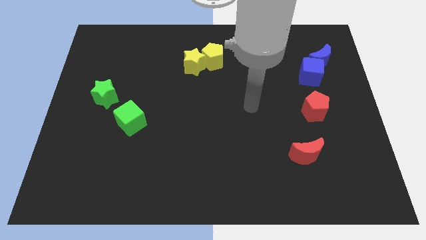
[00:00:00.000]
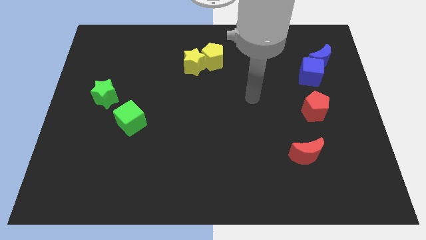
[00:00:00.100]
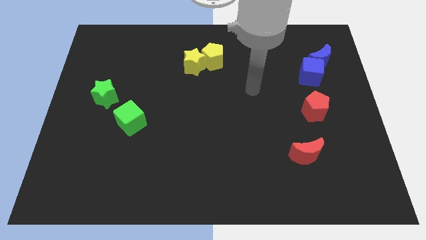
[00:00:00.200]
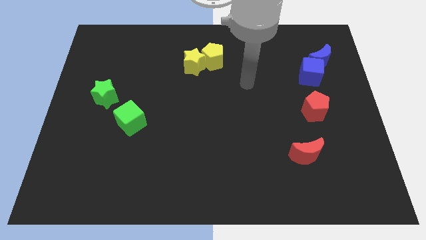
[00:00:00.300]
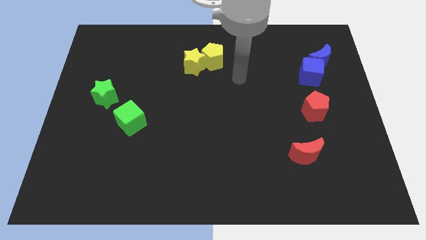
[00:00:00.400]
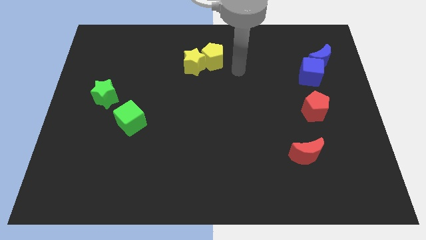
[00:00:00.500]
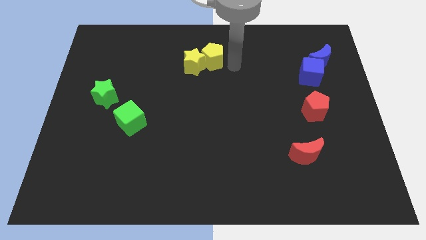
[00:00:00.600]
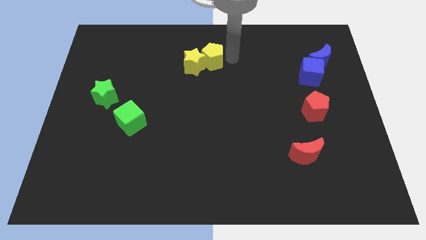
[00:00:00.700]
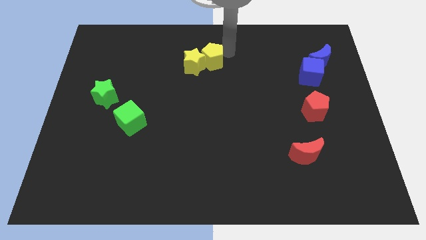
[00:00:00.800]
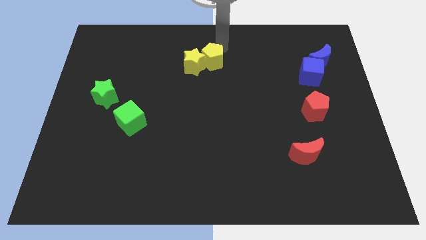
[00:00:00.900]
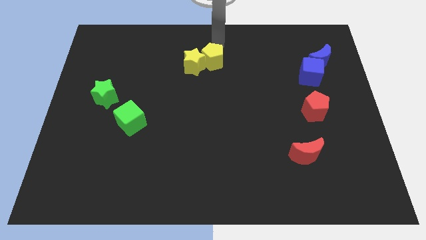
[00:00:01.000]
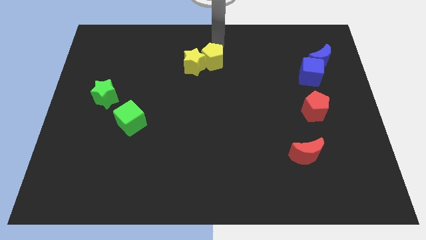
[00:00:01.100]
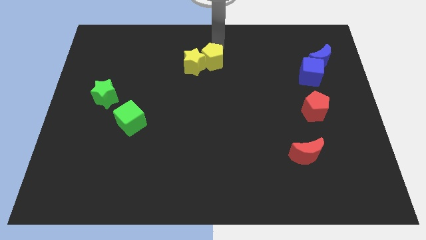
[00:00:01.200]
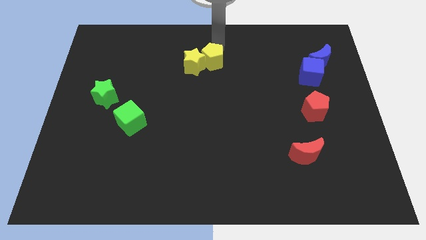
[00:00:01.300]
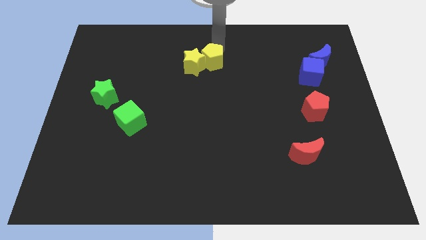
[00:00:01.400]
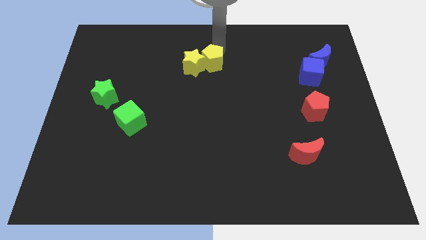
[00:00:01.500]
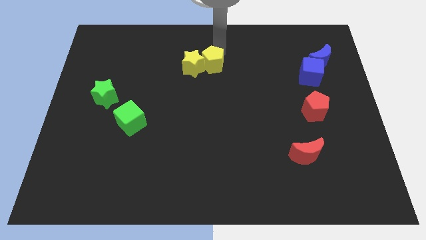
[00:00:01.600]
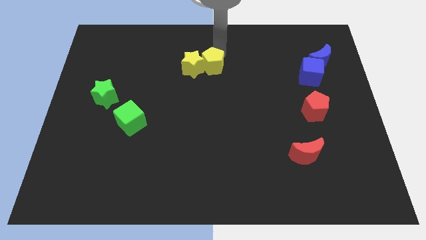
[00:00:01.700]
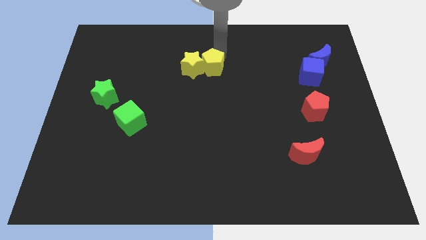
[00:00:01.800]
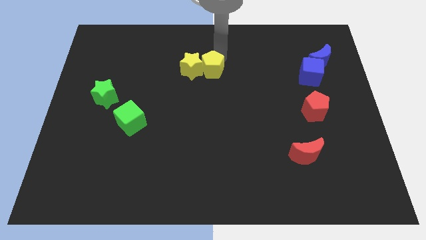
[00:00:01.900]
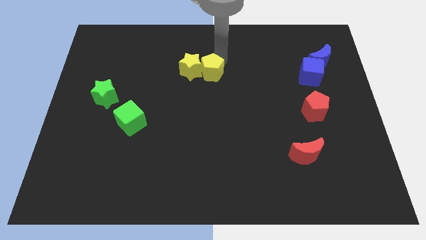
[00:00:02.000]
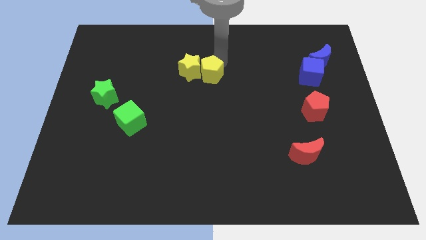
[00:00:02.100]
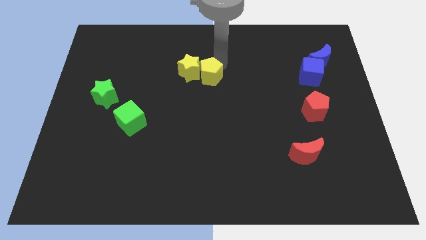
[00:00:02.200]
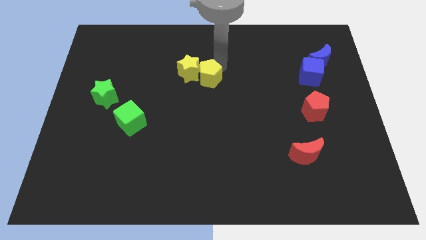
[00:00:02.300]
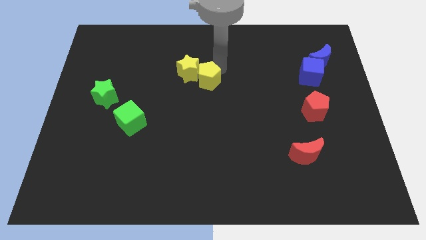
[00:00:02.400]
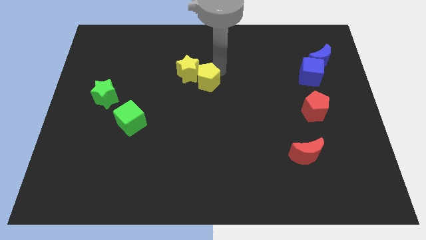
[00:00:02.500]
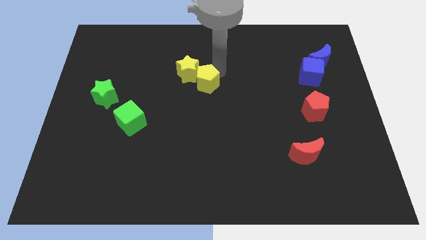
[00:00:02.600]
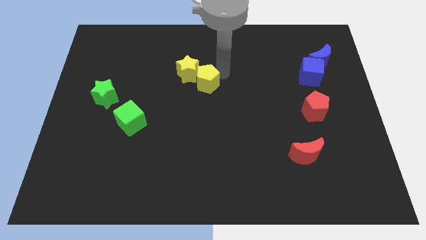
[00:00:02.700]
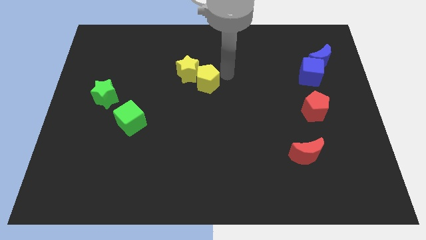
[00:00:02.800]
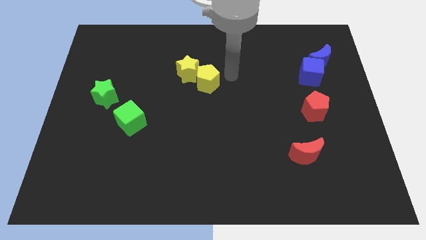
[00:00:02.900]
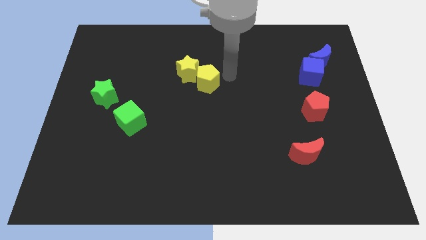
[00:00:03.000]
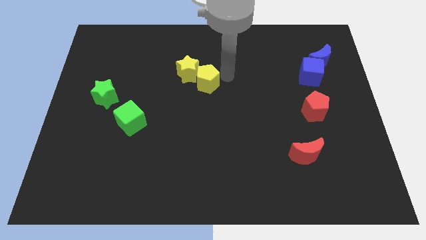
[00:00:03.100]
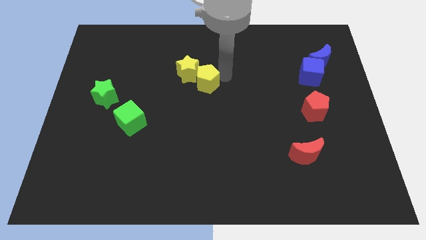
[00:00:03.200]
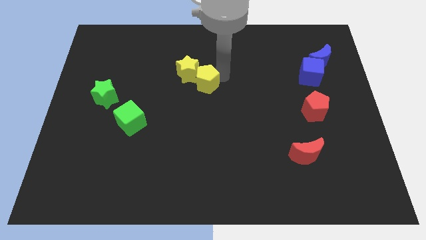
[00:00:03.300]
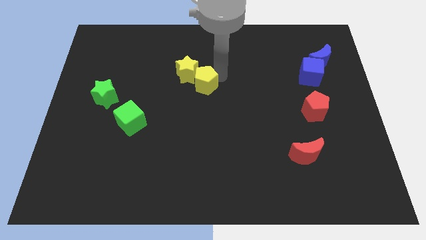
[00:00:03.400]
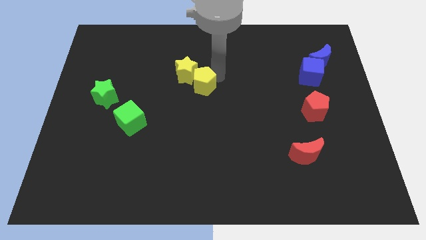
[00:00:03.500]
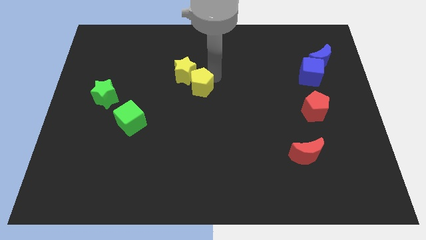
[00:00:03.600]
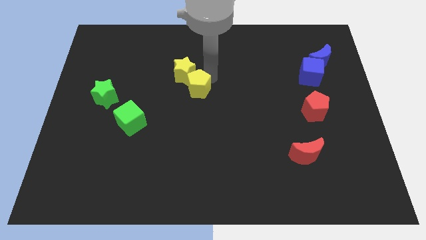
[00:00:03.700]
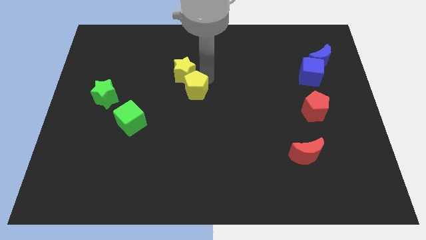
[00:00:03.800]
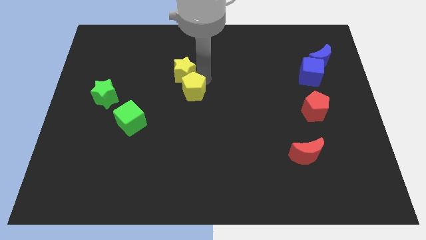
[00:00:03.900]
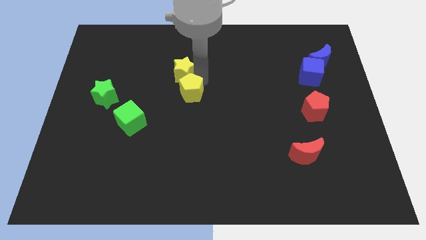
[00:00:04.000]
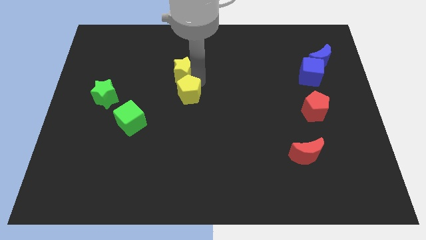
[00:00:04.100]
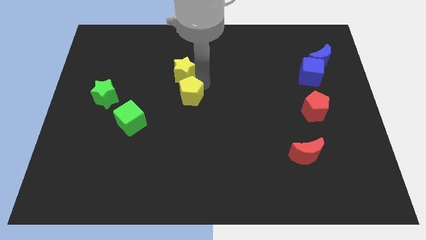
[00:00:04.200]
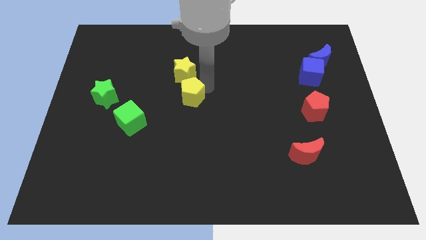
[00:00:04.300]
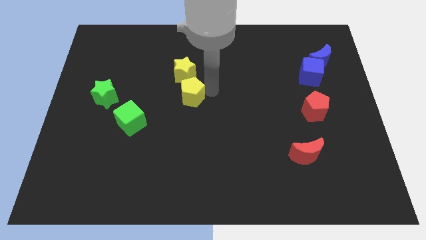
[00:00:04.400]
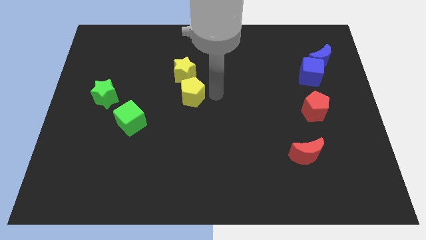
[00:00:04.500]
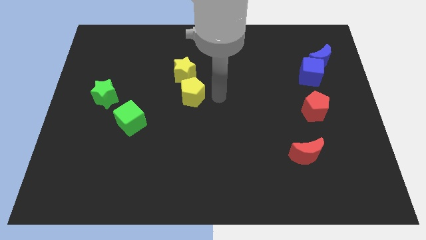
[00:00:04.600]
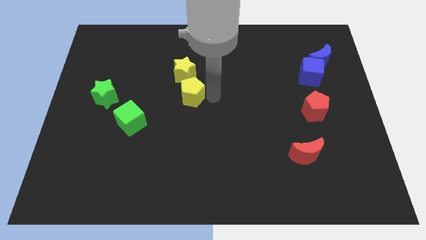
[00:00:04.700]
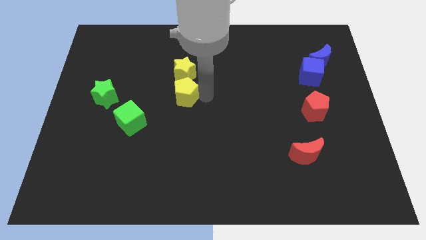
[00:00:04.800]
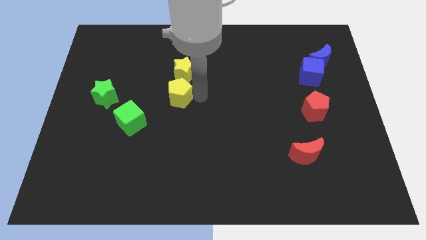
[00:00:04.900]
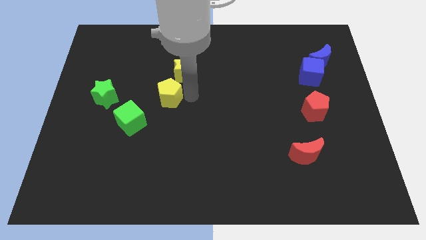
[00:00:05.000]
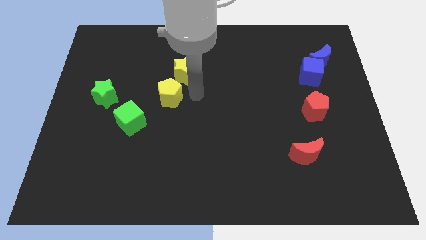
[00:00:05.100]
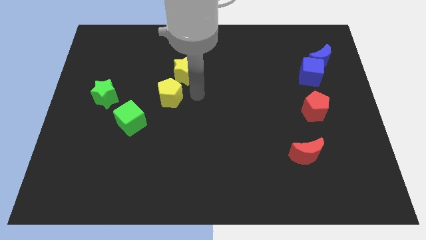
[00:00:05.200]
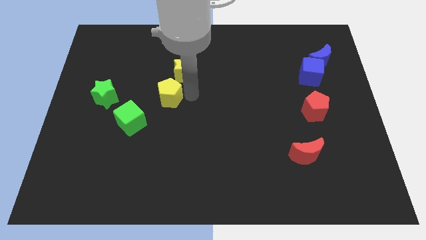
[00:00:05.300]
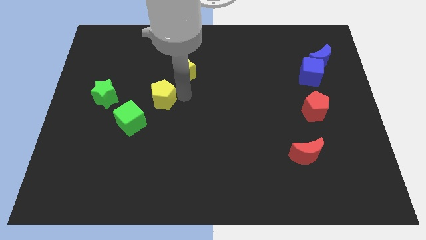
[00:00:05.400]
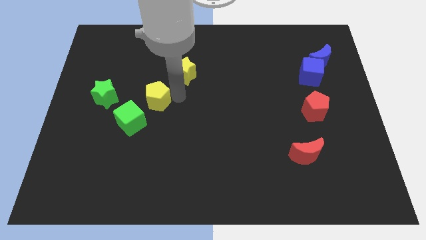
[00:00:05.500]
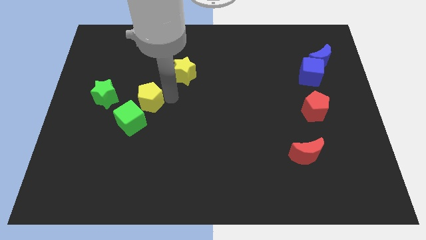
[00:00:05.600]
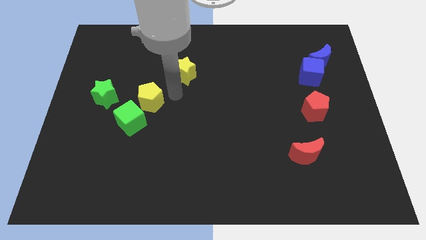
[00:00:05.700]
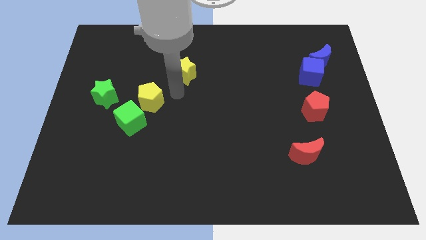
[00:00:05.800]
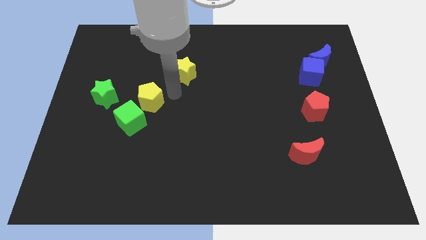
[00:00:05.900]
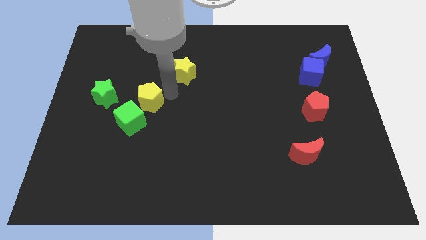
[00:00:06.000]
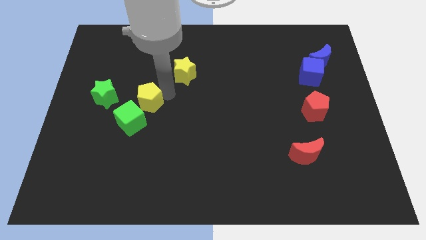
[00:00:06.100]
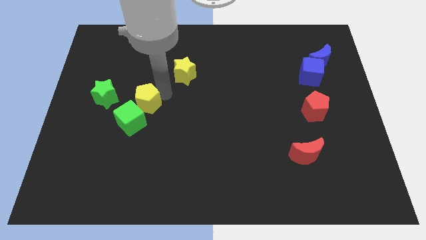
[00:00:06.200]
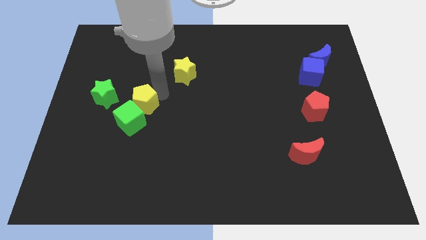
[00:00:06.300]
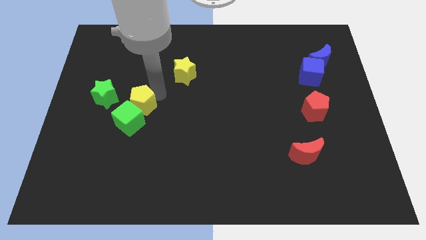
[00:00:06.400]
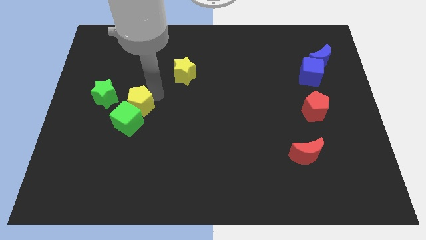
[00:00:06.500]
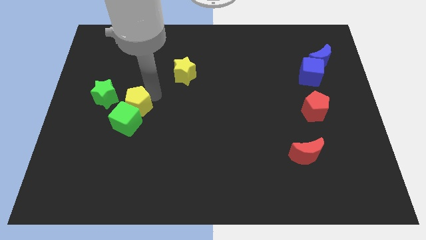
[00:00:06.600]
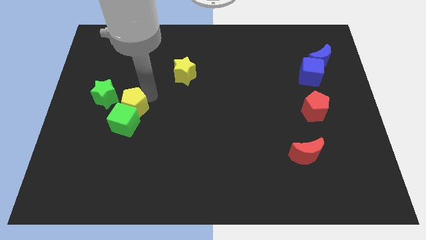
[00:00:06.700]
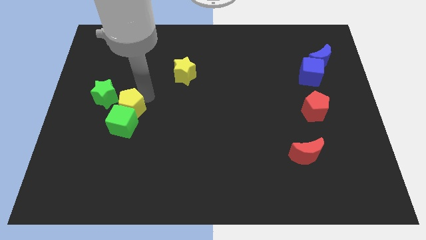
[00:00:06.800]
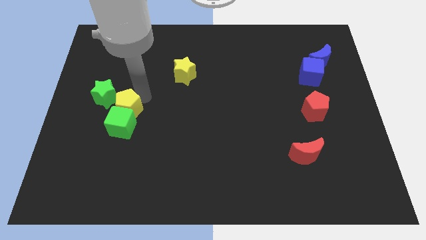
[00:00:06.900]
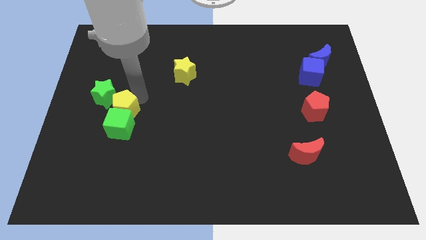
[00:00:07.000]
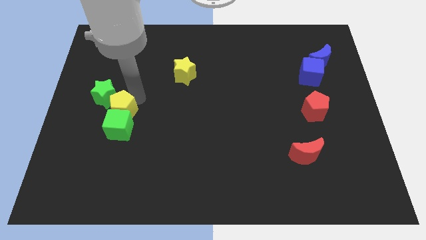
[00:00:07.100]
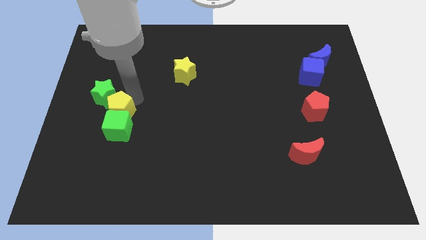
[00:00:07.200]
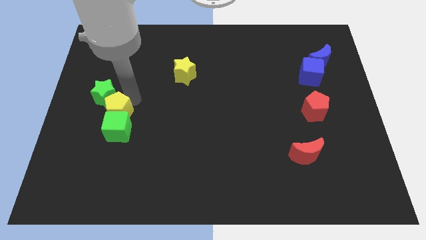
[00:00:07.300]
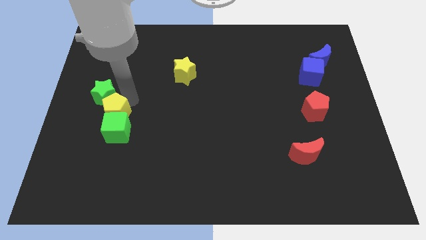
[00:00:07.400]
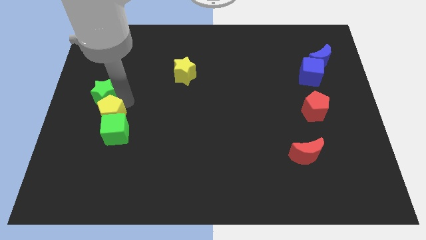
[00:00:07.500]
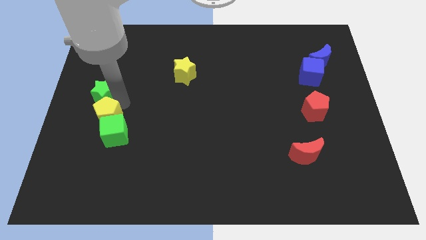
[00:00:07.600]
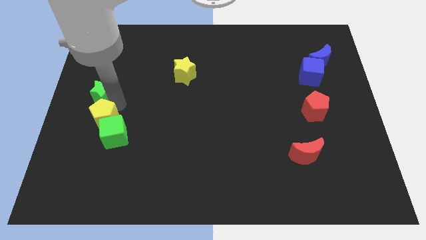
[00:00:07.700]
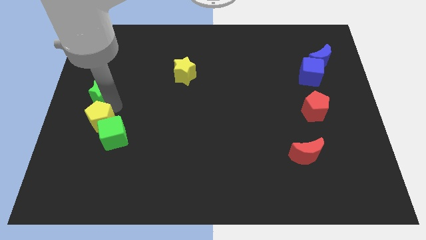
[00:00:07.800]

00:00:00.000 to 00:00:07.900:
slide the yellow pentagon just left of the green cube
